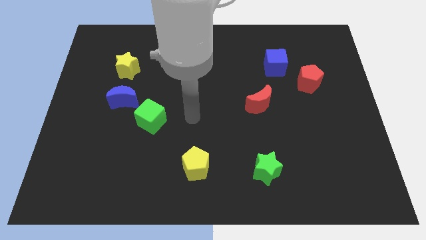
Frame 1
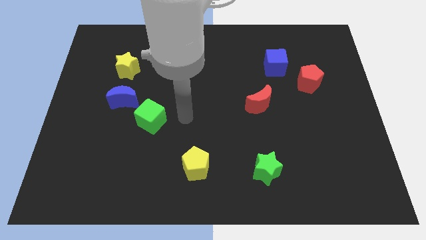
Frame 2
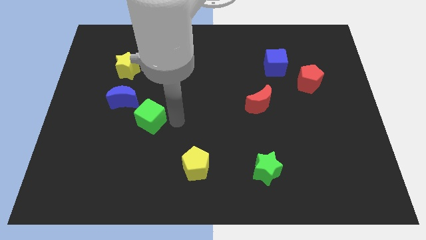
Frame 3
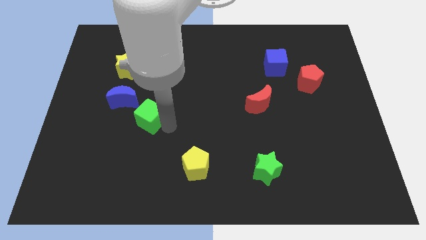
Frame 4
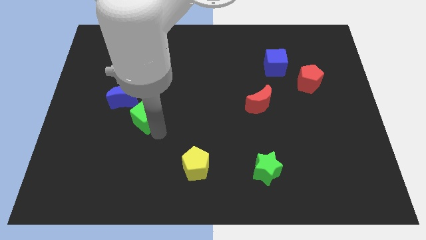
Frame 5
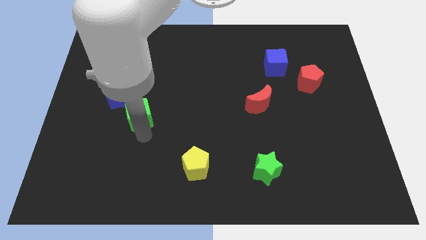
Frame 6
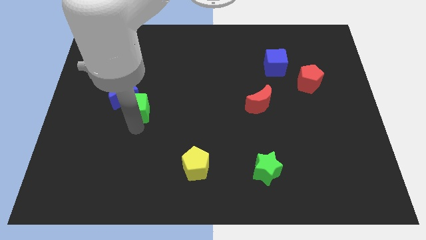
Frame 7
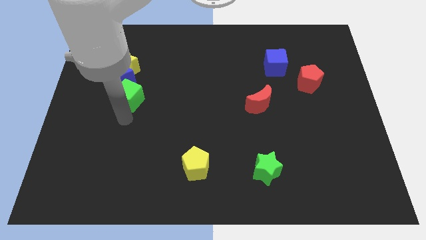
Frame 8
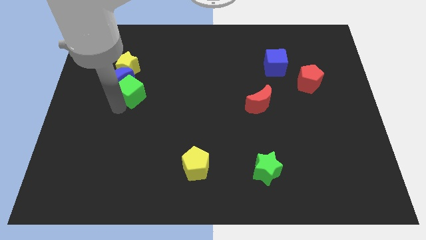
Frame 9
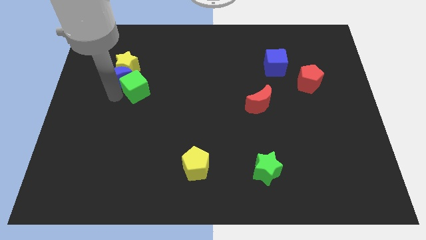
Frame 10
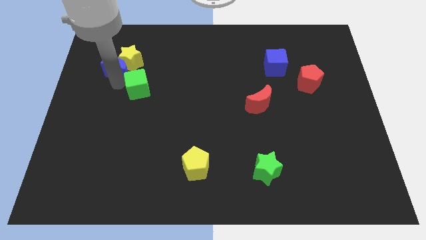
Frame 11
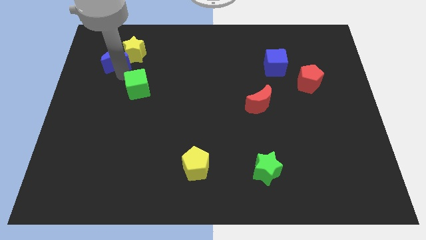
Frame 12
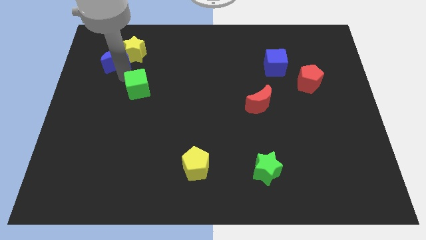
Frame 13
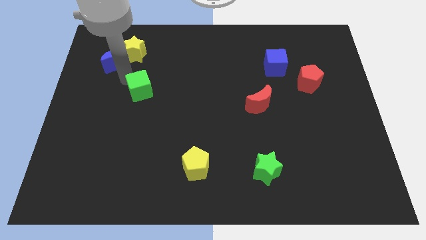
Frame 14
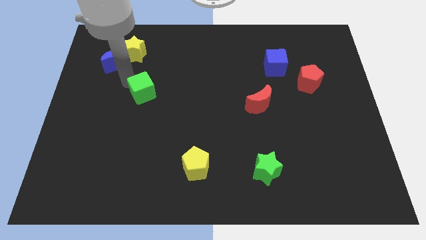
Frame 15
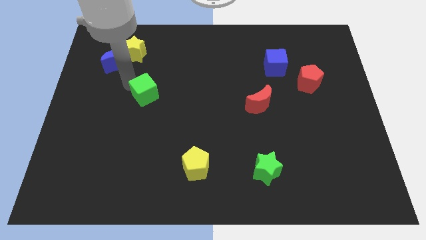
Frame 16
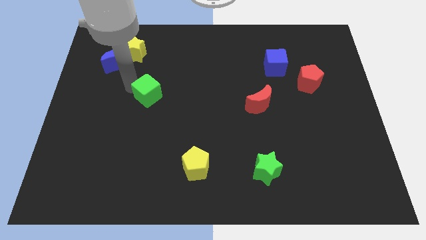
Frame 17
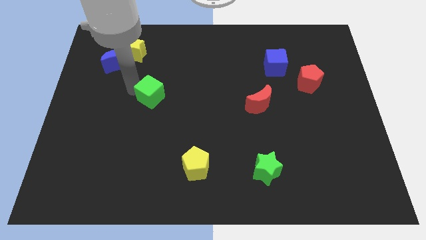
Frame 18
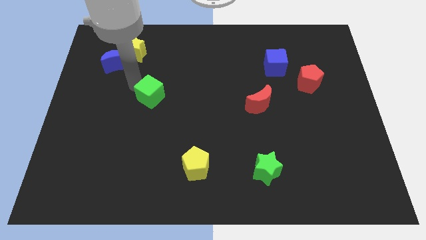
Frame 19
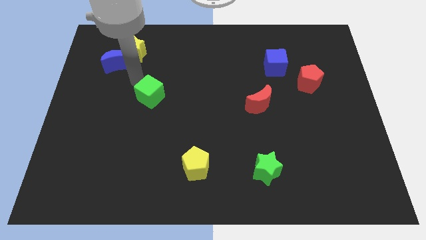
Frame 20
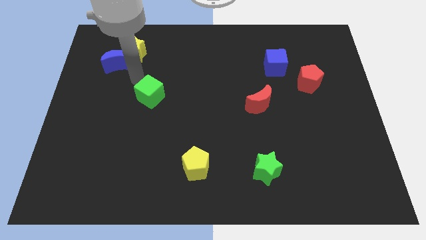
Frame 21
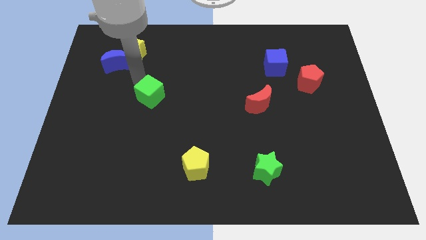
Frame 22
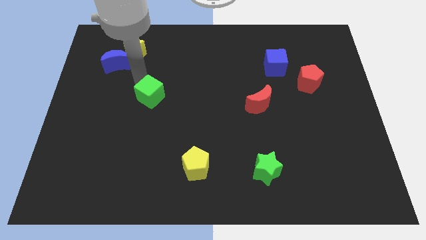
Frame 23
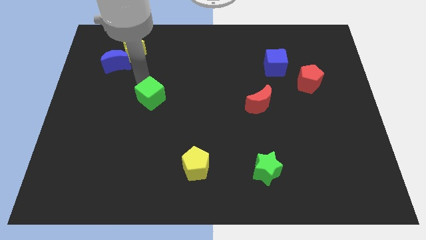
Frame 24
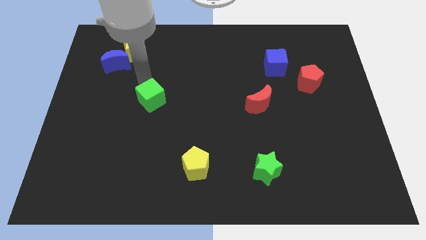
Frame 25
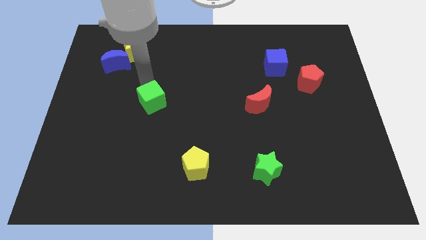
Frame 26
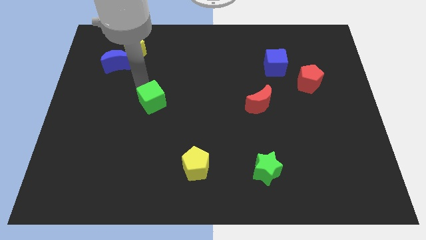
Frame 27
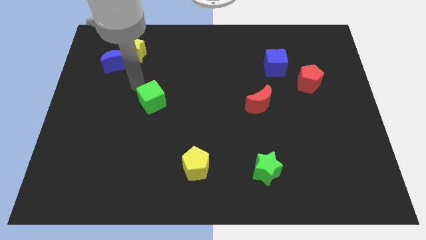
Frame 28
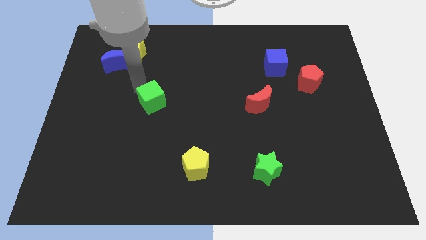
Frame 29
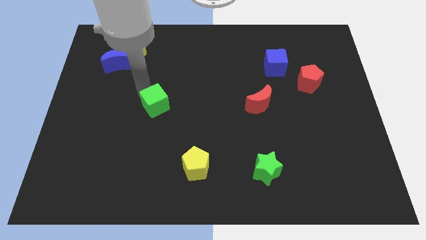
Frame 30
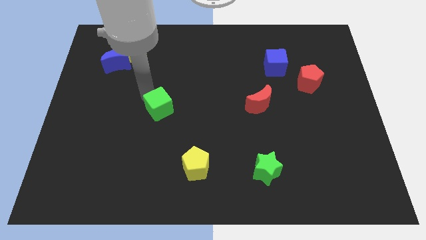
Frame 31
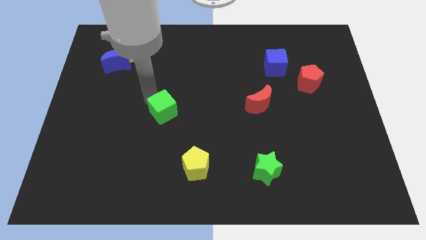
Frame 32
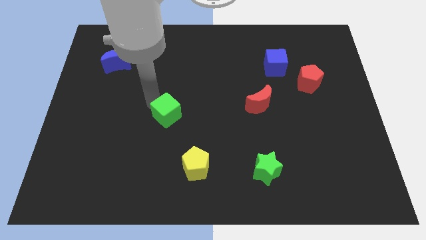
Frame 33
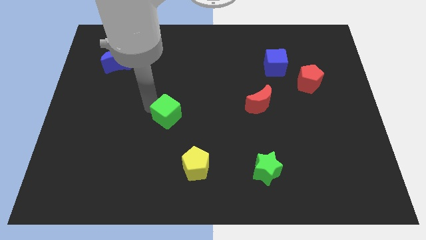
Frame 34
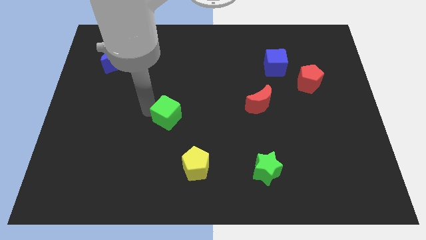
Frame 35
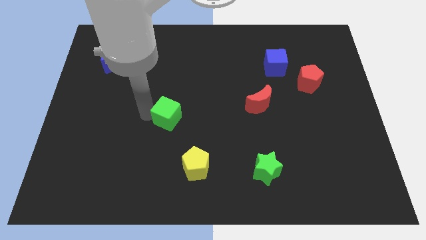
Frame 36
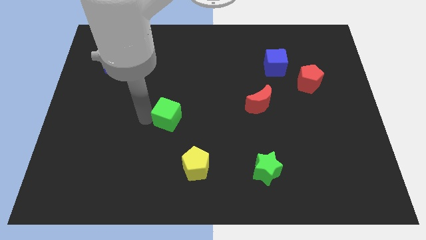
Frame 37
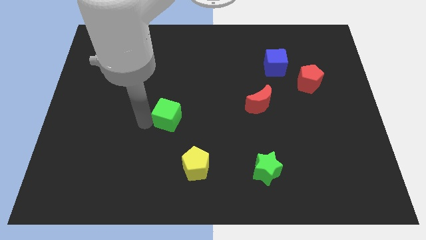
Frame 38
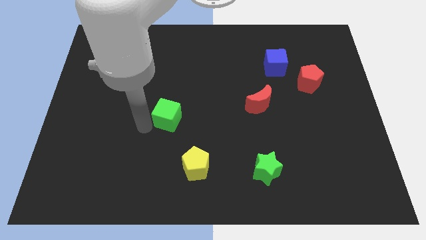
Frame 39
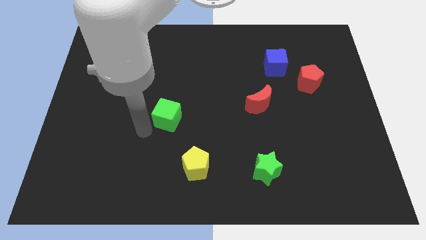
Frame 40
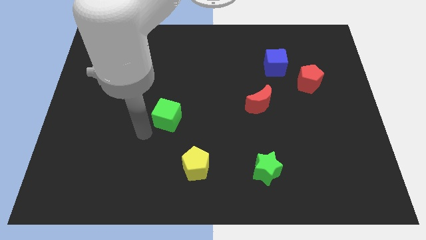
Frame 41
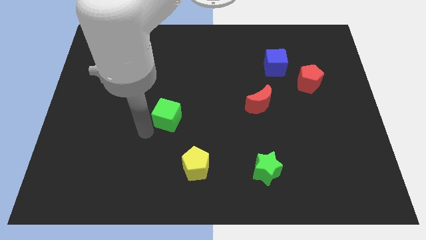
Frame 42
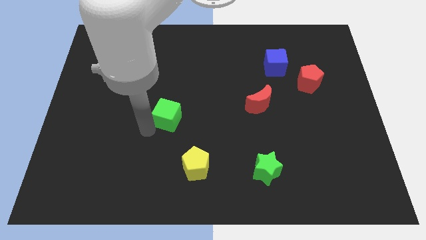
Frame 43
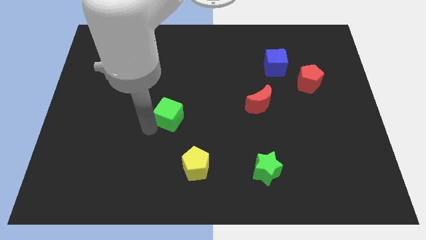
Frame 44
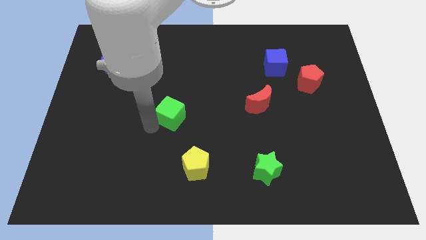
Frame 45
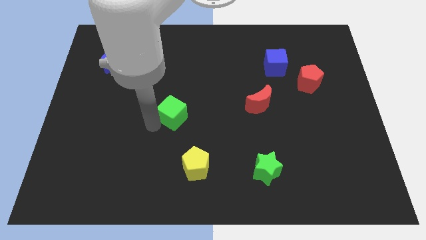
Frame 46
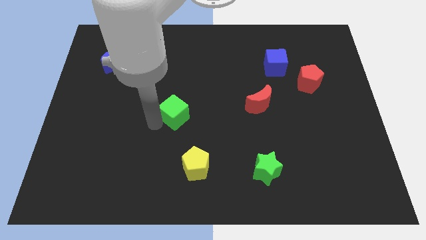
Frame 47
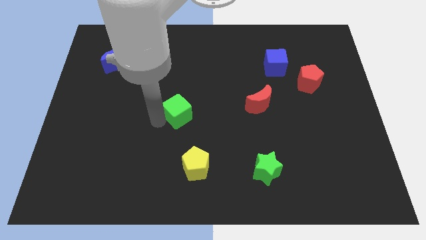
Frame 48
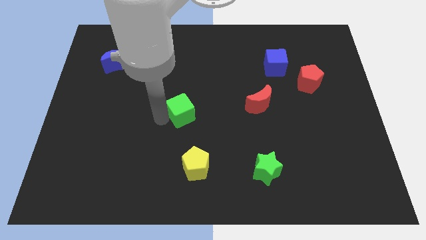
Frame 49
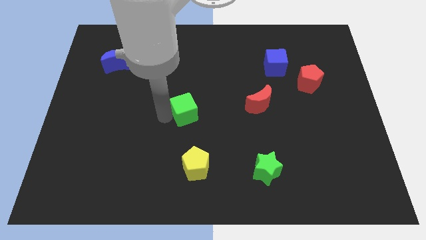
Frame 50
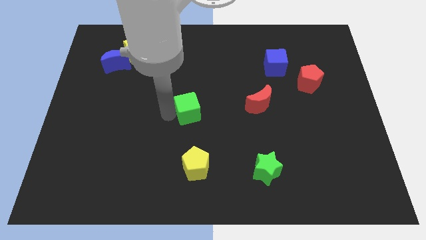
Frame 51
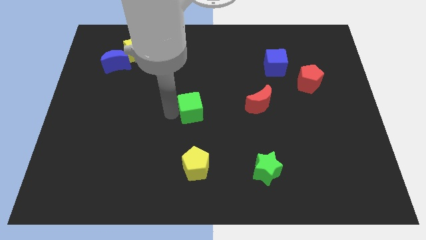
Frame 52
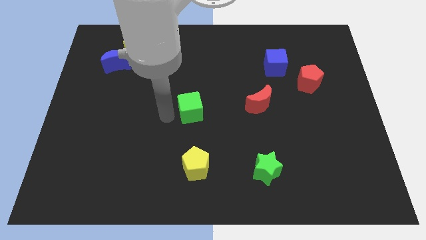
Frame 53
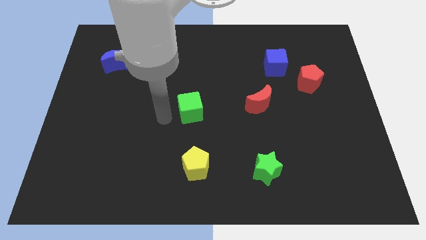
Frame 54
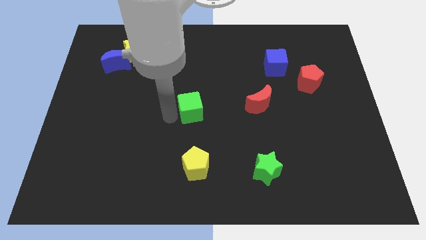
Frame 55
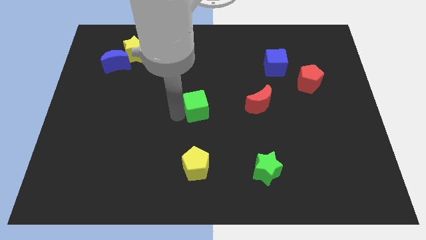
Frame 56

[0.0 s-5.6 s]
push the green cube to the left of the red moon

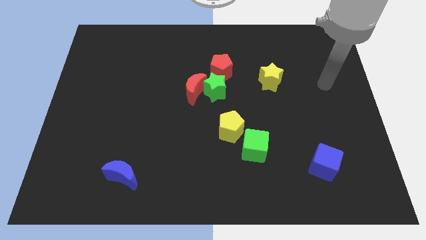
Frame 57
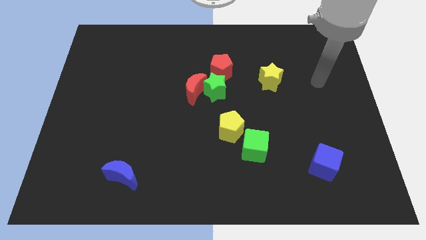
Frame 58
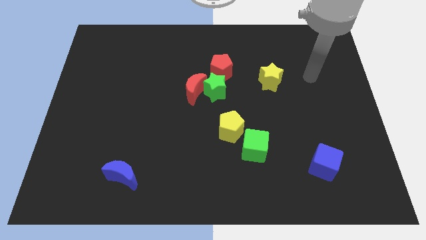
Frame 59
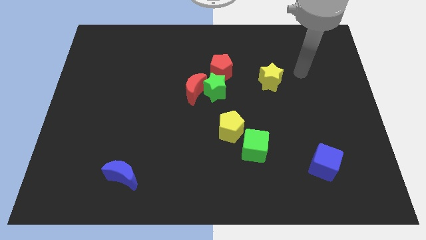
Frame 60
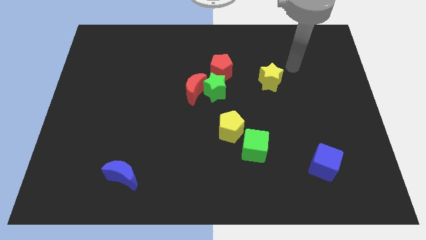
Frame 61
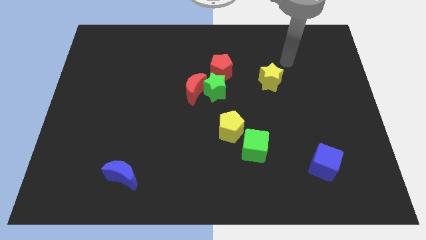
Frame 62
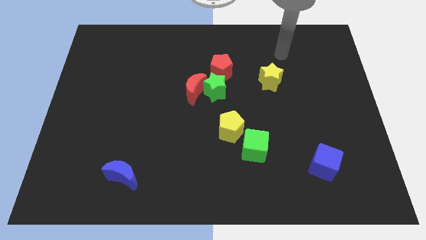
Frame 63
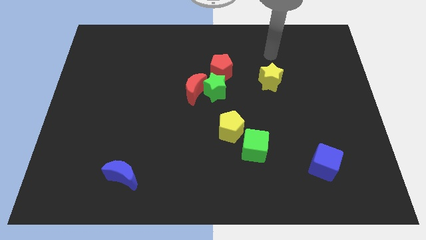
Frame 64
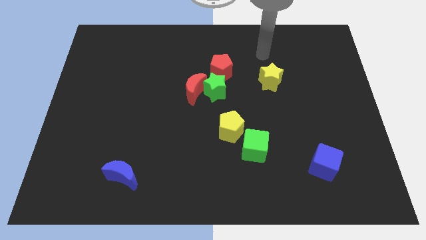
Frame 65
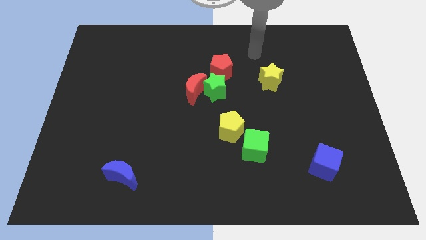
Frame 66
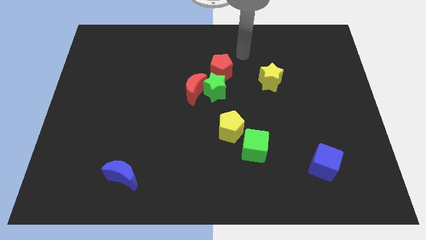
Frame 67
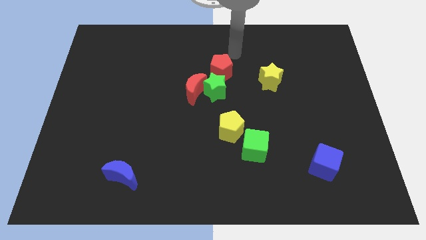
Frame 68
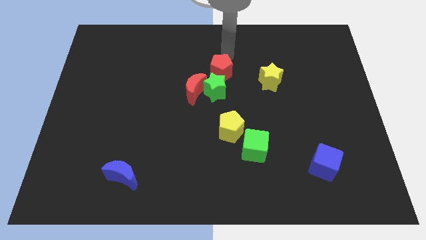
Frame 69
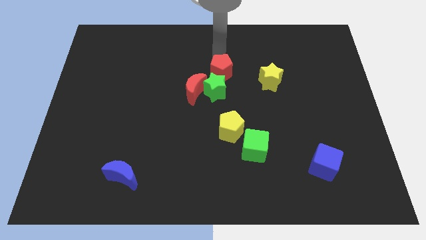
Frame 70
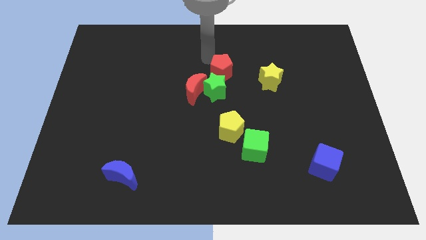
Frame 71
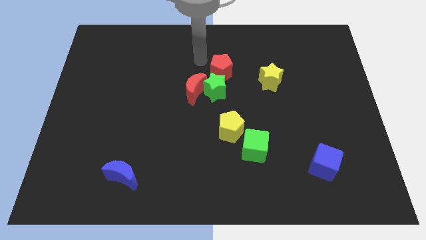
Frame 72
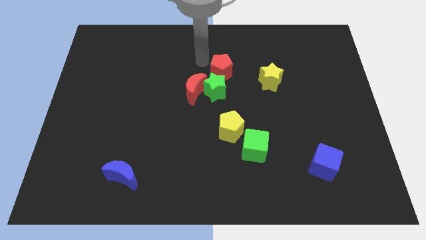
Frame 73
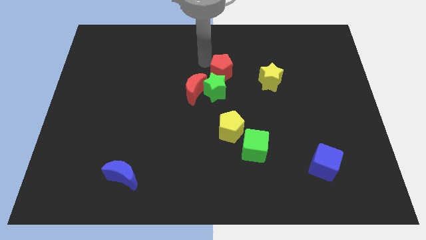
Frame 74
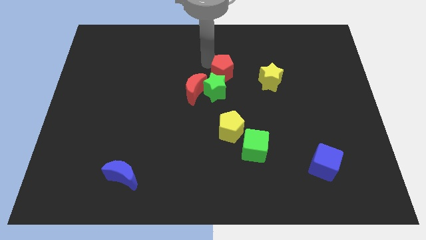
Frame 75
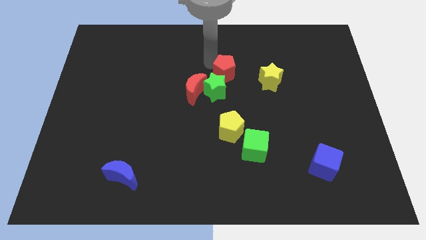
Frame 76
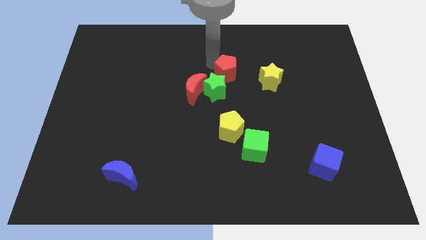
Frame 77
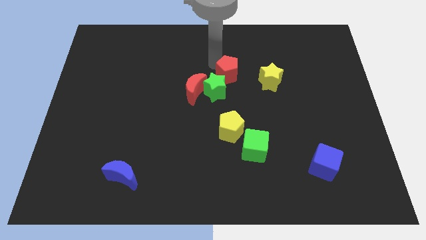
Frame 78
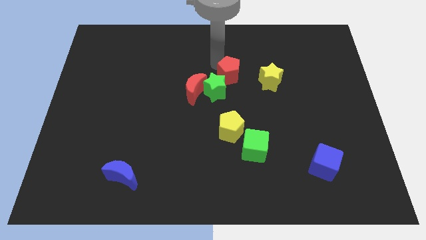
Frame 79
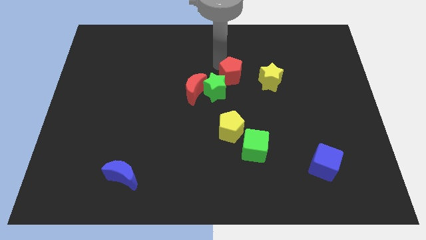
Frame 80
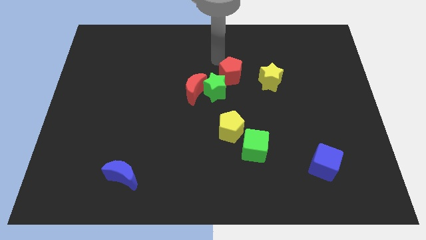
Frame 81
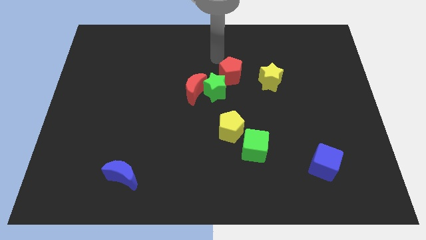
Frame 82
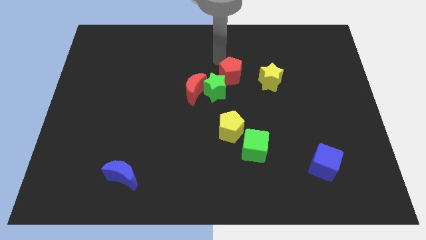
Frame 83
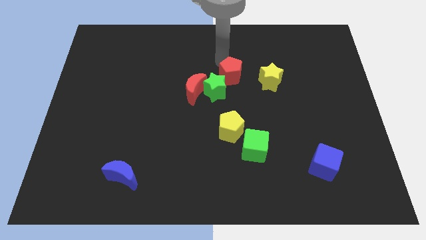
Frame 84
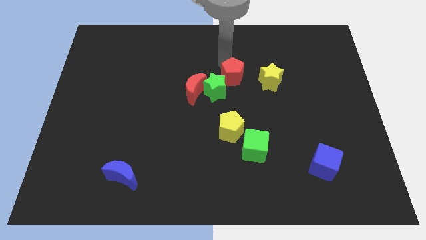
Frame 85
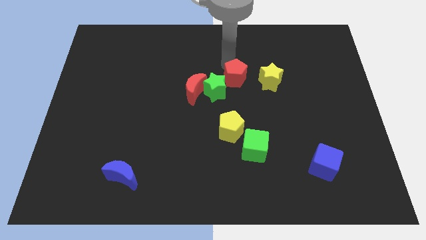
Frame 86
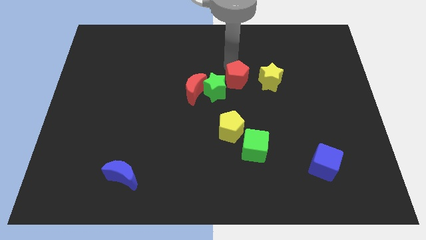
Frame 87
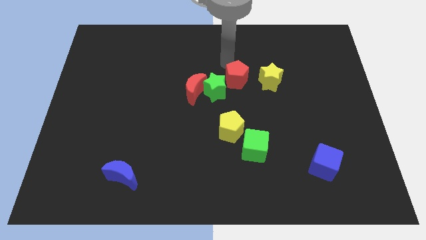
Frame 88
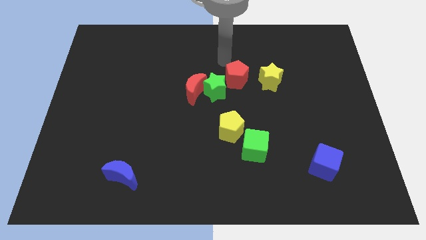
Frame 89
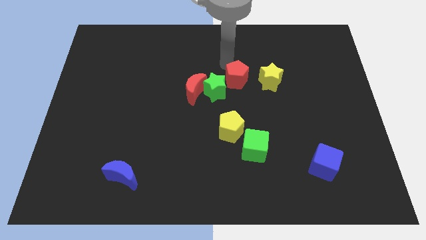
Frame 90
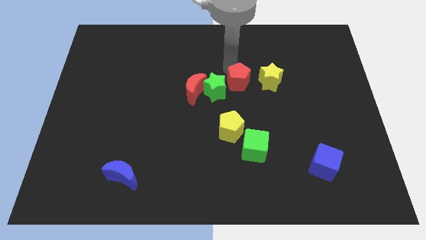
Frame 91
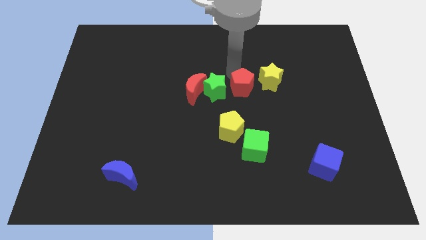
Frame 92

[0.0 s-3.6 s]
put the red pentagon diagonally down and to the left of the yellow star
